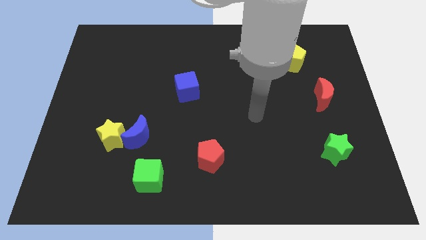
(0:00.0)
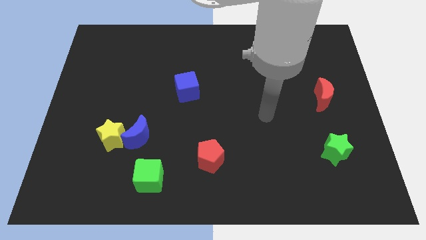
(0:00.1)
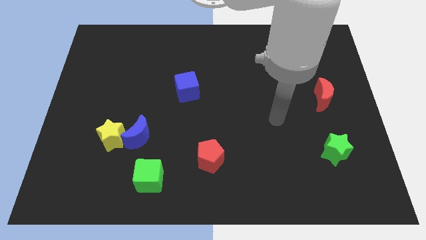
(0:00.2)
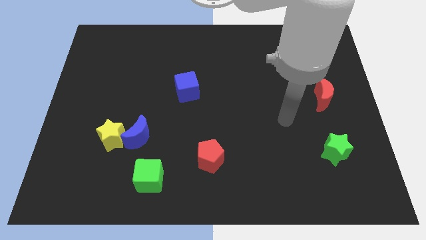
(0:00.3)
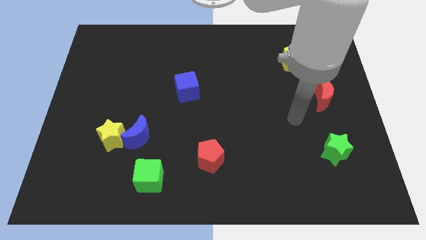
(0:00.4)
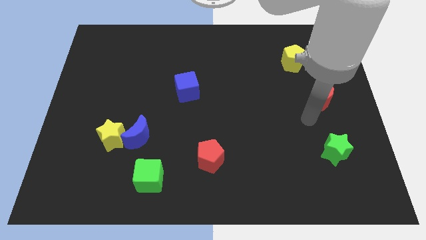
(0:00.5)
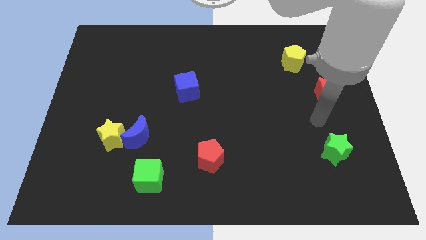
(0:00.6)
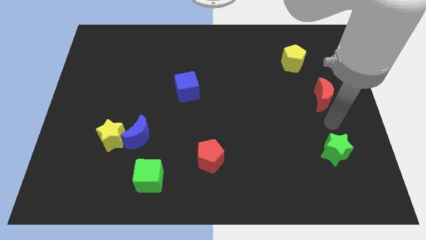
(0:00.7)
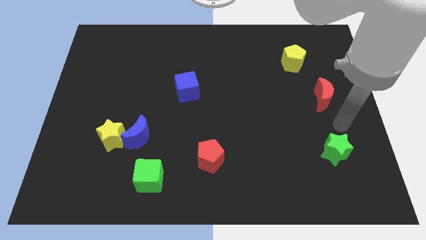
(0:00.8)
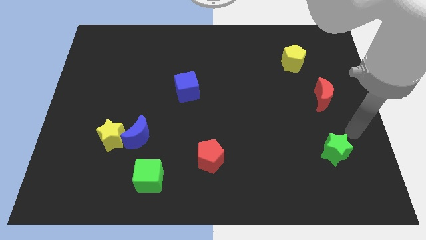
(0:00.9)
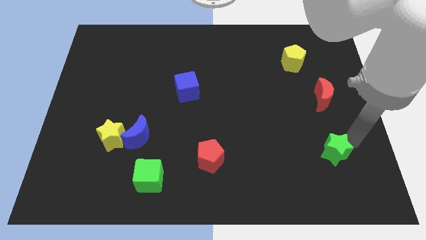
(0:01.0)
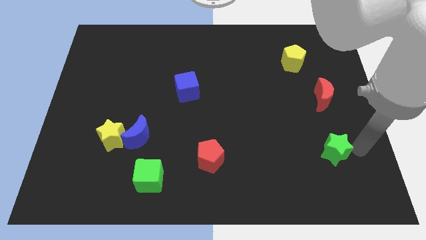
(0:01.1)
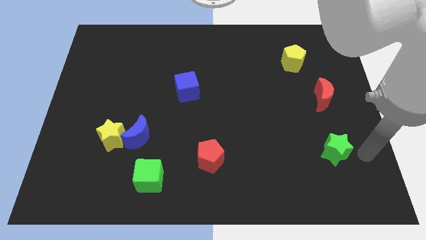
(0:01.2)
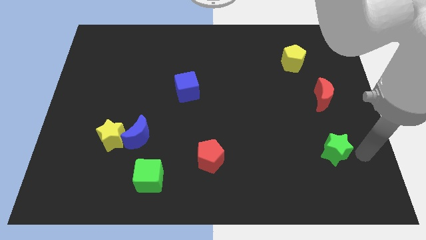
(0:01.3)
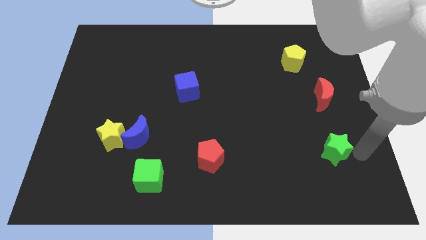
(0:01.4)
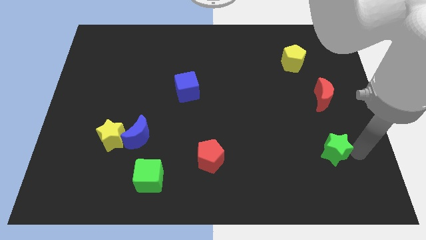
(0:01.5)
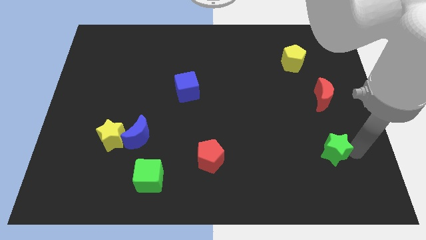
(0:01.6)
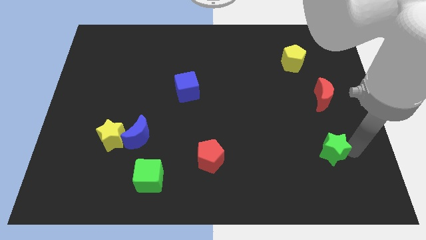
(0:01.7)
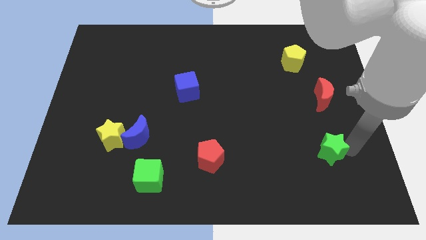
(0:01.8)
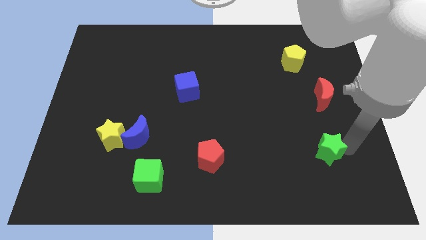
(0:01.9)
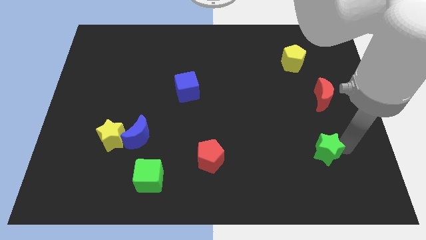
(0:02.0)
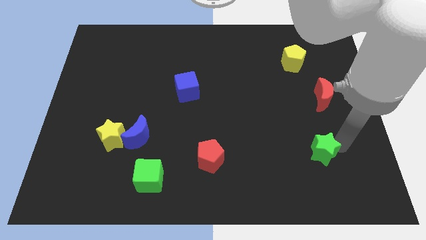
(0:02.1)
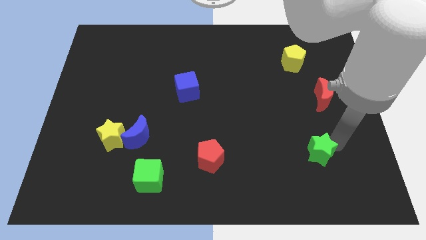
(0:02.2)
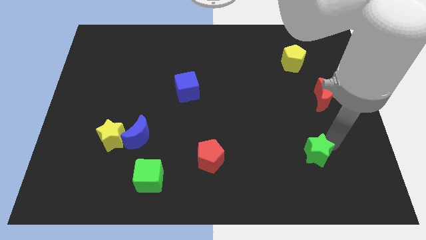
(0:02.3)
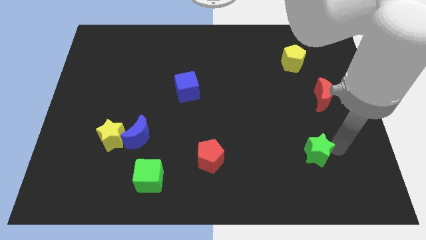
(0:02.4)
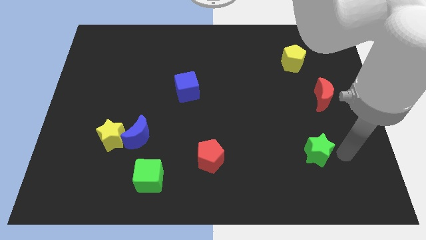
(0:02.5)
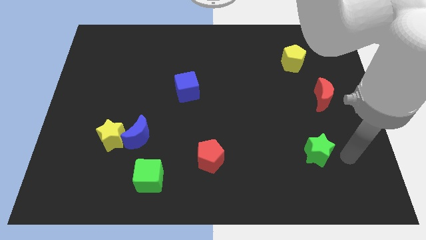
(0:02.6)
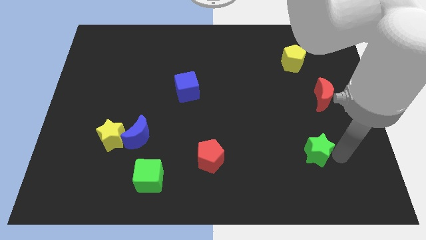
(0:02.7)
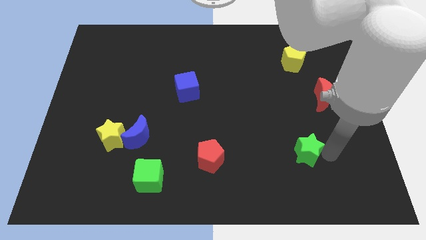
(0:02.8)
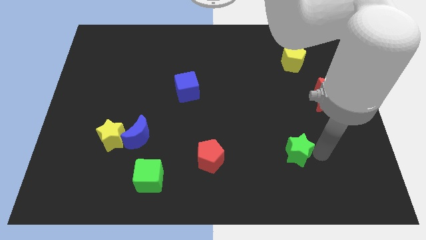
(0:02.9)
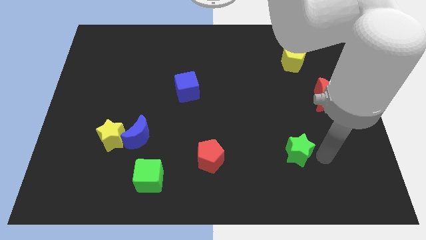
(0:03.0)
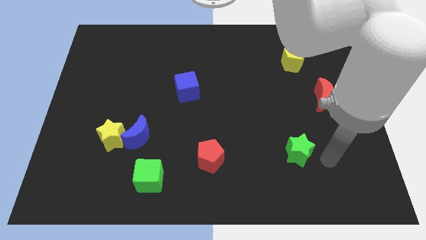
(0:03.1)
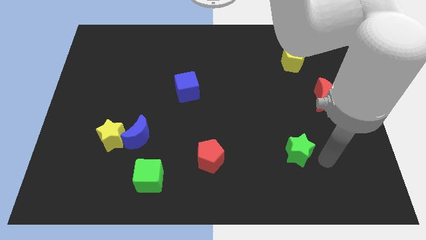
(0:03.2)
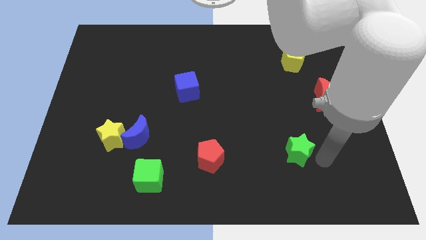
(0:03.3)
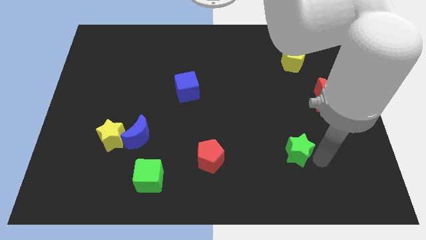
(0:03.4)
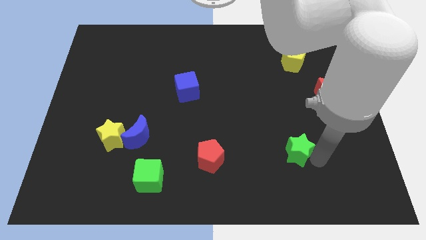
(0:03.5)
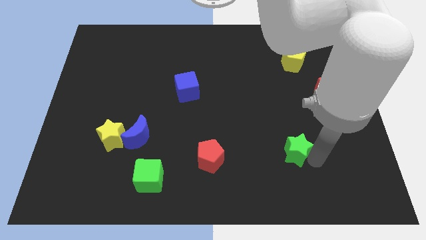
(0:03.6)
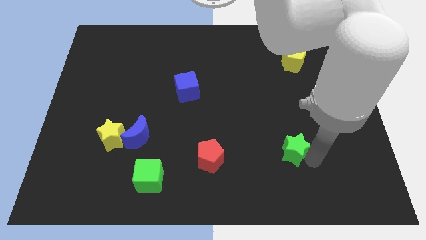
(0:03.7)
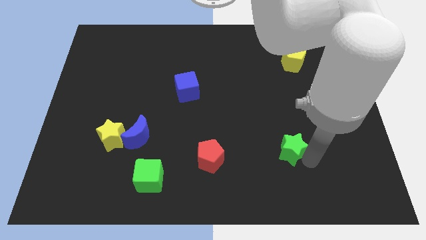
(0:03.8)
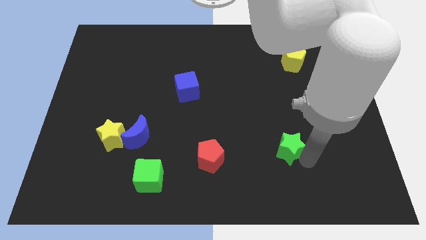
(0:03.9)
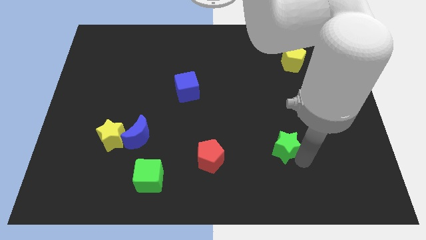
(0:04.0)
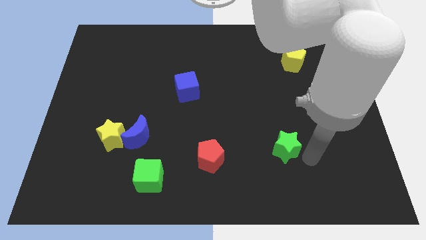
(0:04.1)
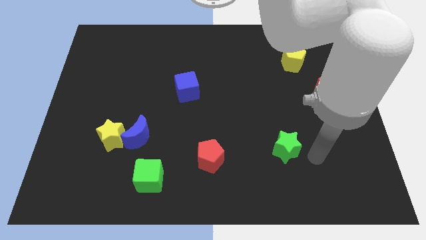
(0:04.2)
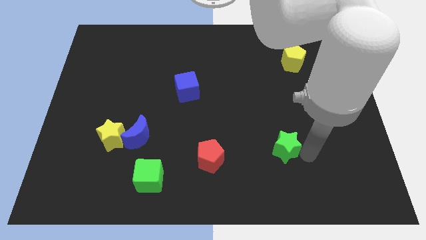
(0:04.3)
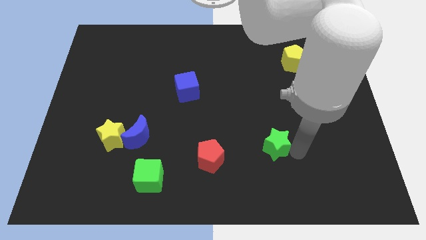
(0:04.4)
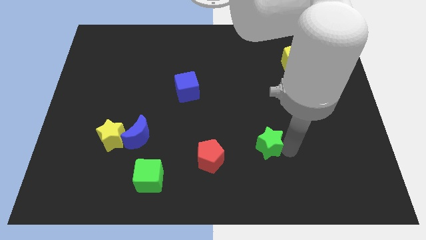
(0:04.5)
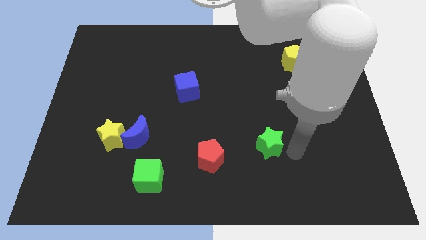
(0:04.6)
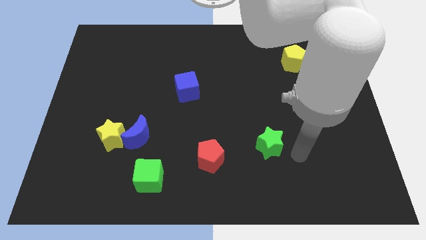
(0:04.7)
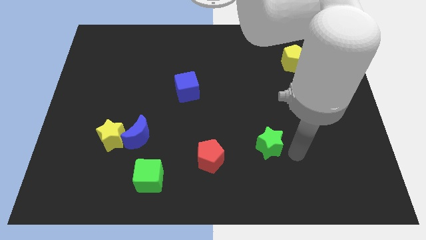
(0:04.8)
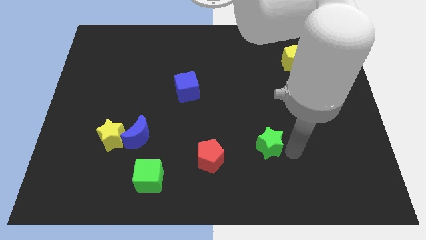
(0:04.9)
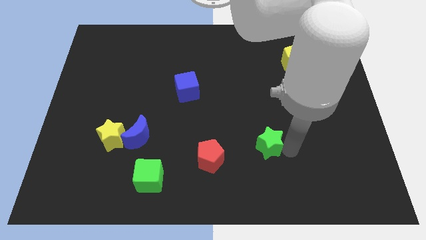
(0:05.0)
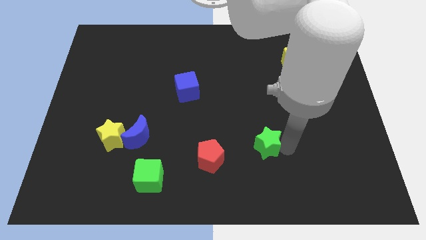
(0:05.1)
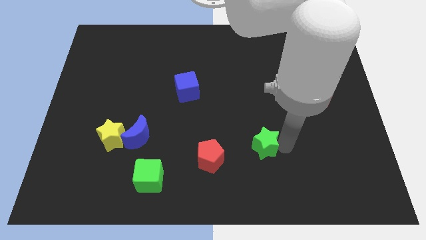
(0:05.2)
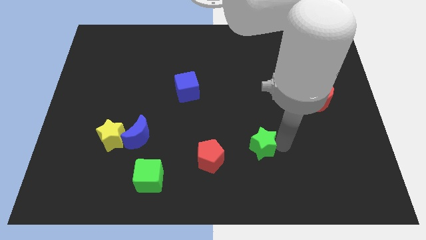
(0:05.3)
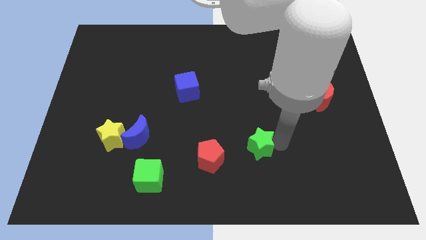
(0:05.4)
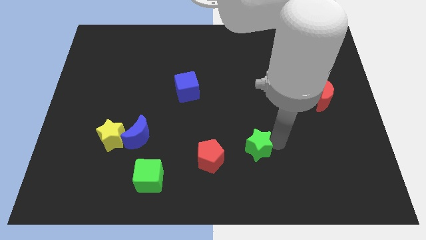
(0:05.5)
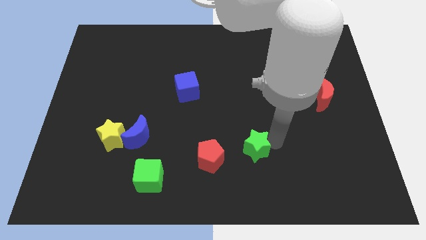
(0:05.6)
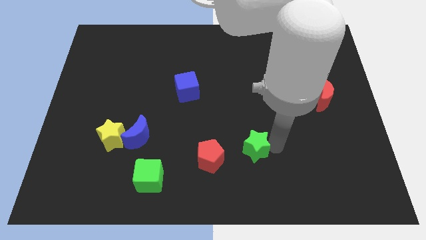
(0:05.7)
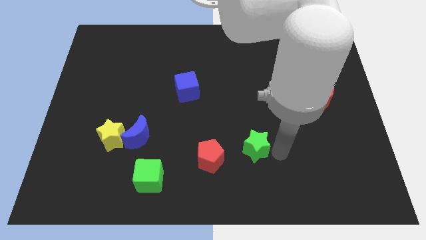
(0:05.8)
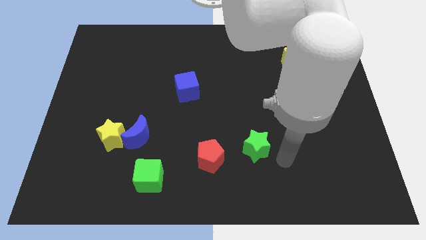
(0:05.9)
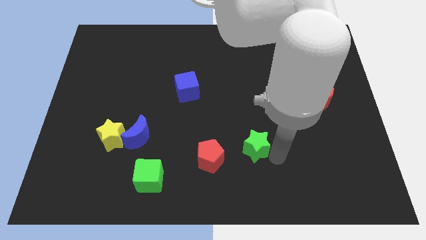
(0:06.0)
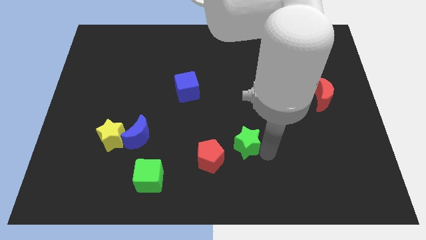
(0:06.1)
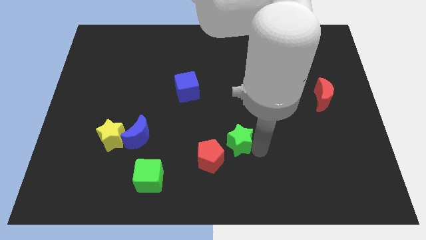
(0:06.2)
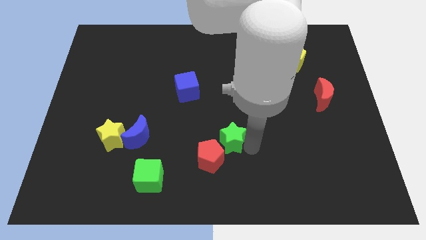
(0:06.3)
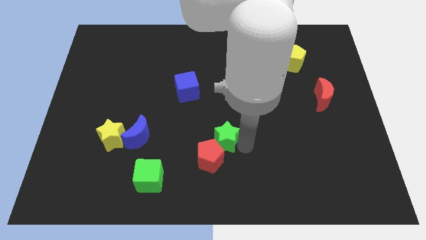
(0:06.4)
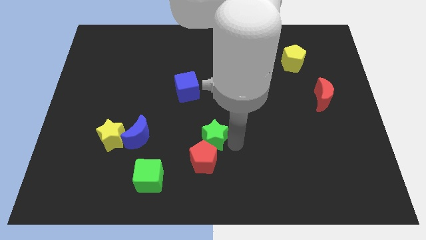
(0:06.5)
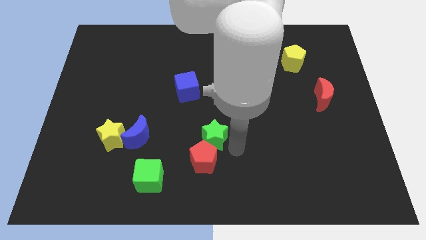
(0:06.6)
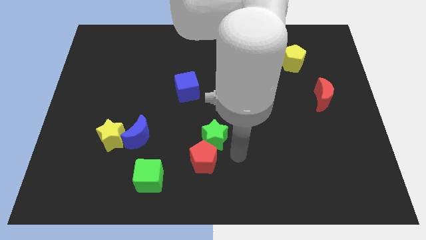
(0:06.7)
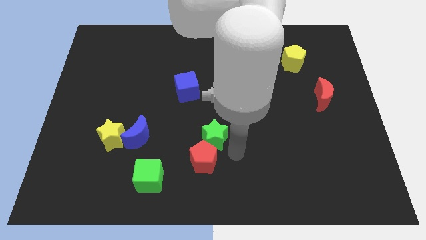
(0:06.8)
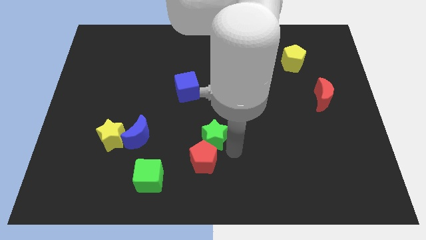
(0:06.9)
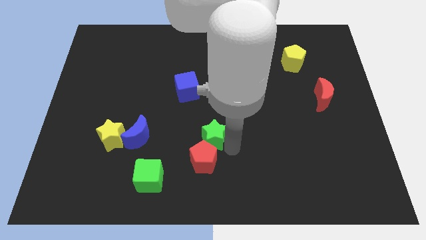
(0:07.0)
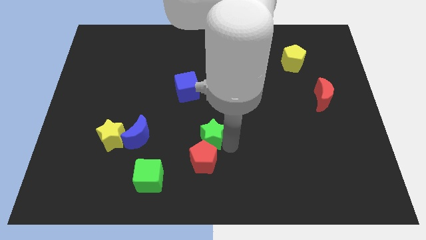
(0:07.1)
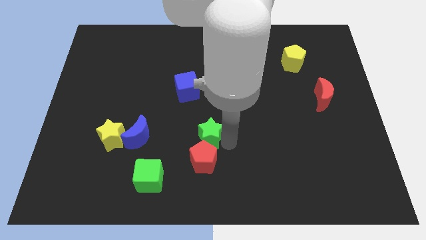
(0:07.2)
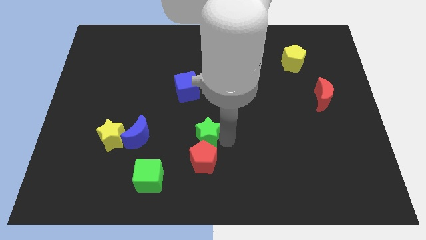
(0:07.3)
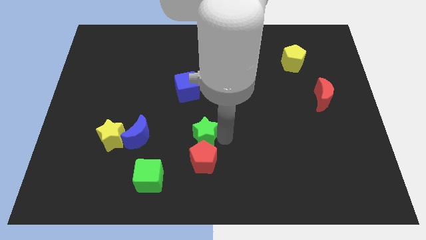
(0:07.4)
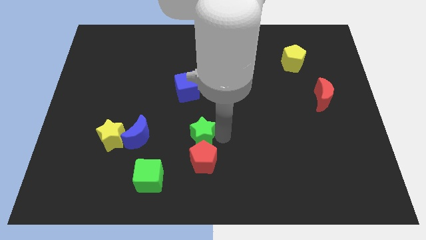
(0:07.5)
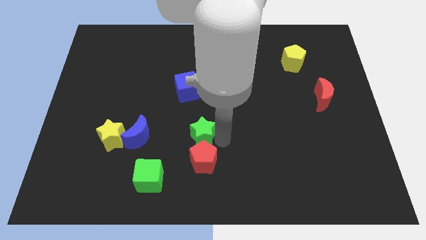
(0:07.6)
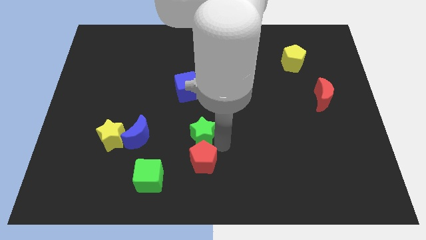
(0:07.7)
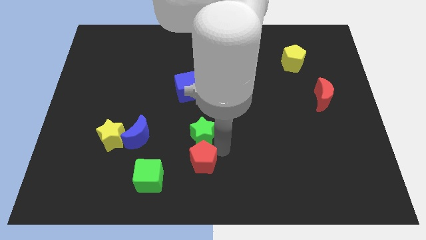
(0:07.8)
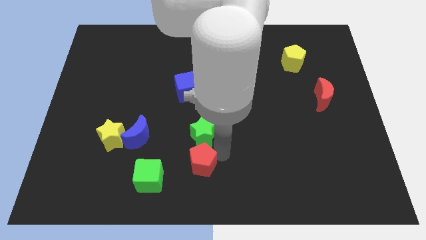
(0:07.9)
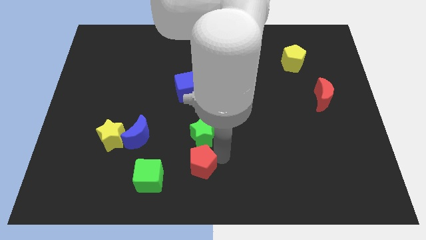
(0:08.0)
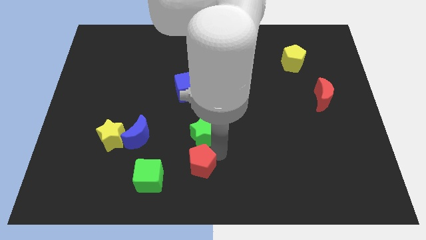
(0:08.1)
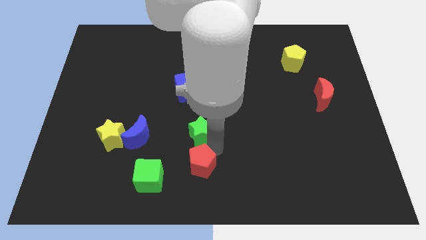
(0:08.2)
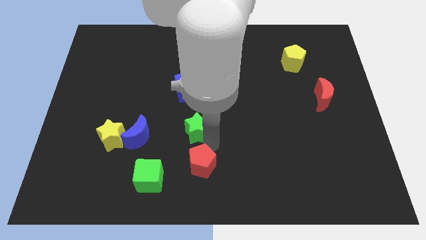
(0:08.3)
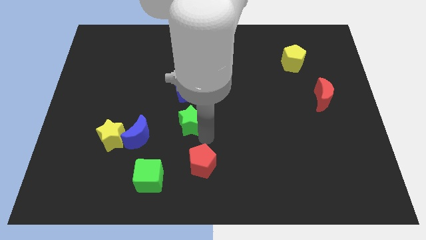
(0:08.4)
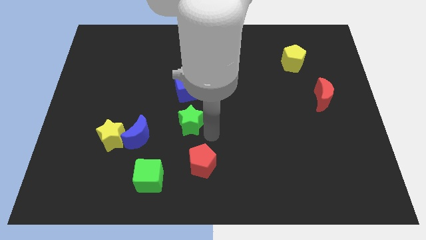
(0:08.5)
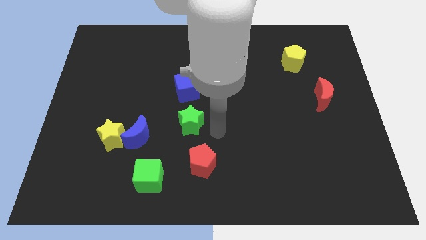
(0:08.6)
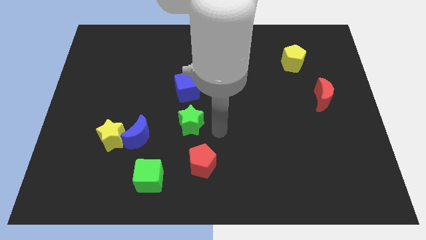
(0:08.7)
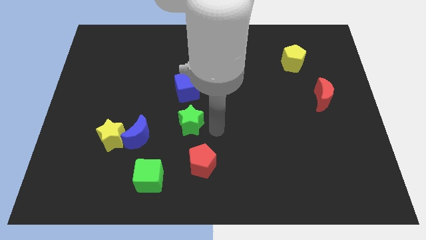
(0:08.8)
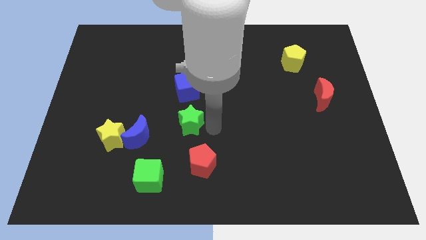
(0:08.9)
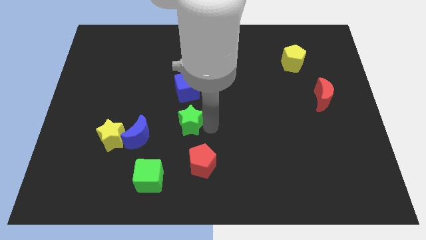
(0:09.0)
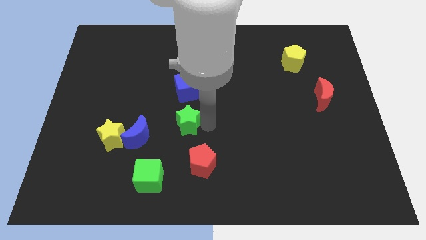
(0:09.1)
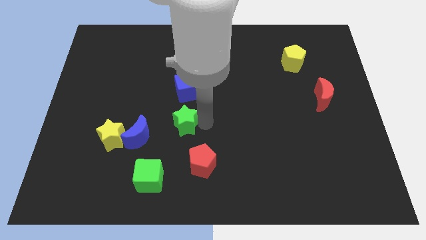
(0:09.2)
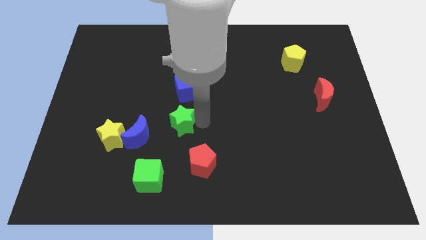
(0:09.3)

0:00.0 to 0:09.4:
put the green star to the top right of the blue moon
